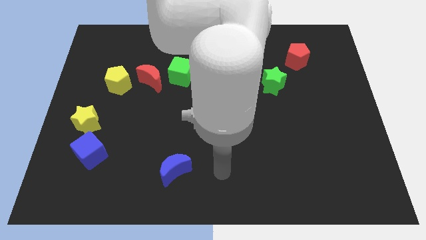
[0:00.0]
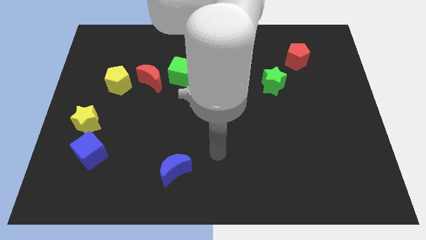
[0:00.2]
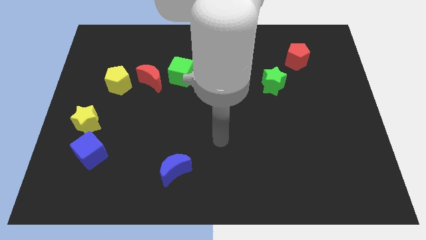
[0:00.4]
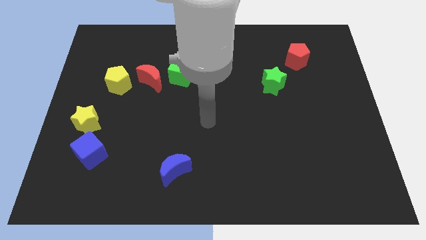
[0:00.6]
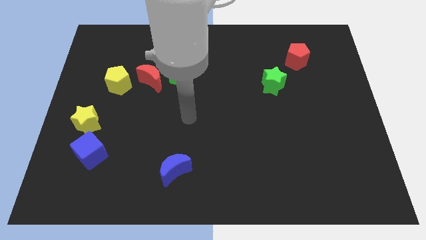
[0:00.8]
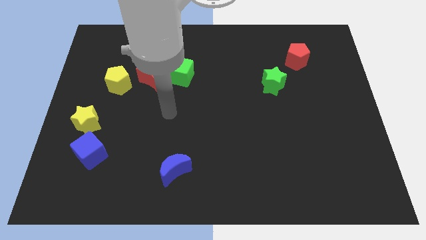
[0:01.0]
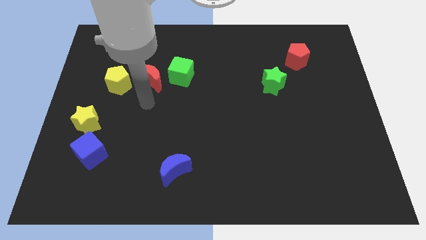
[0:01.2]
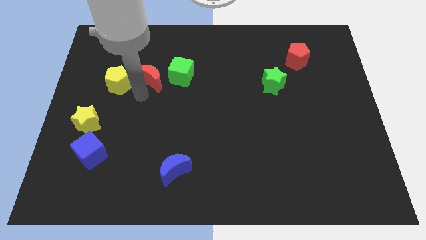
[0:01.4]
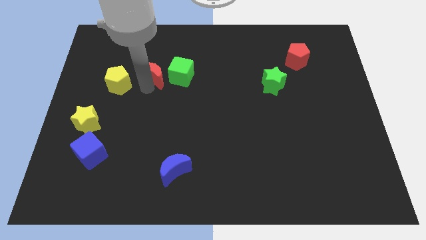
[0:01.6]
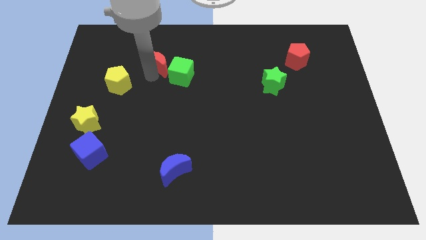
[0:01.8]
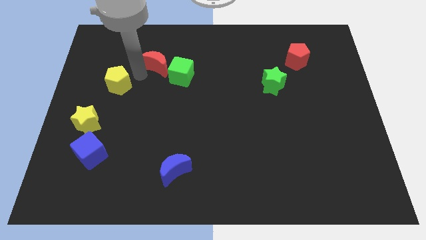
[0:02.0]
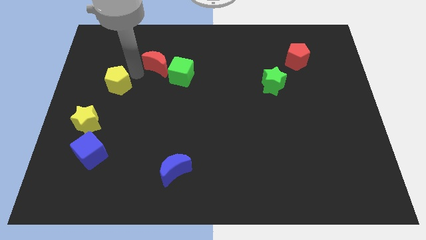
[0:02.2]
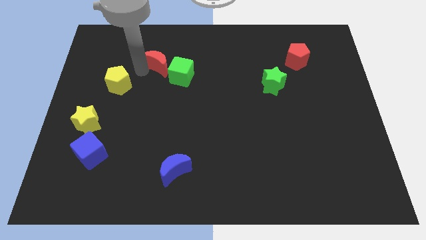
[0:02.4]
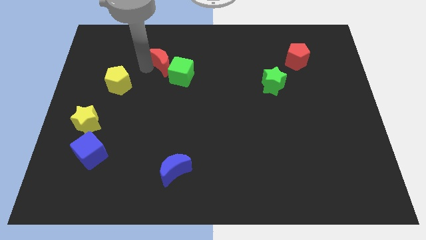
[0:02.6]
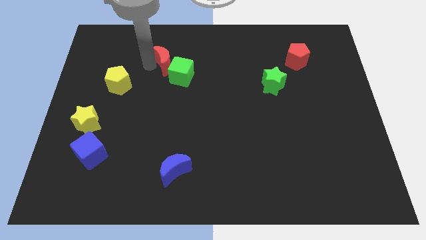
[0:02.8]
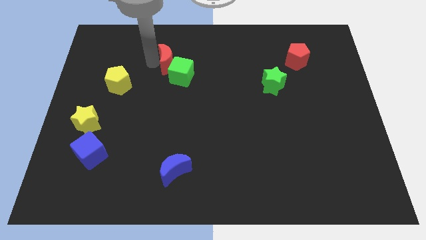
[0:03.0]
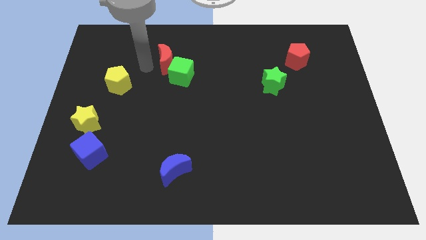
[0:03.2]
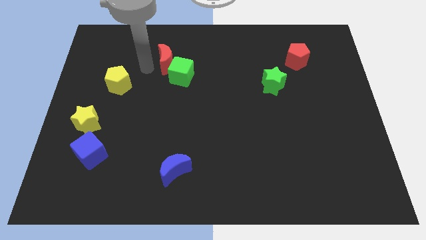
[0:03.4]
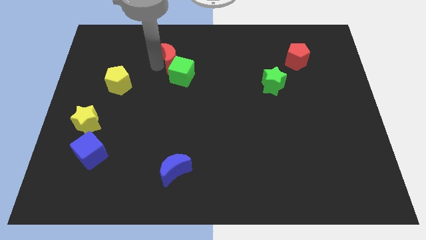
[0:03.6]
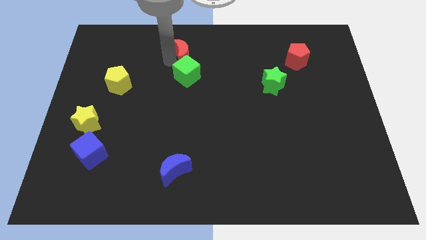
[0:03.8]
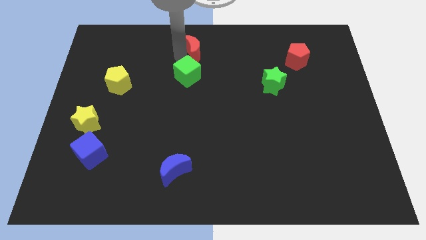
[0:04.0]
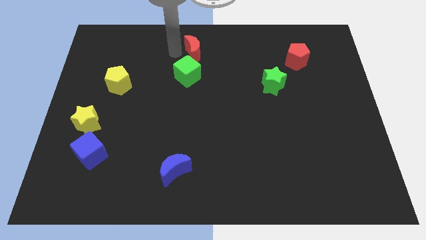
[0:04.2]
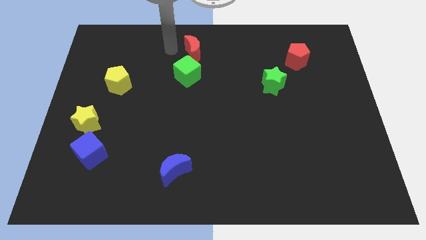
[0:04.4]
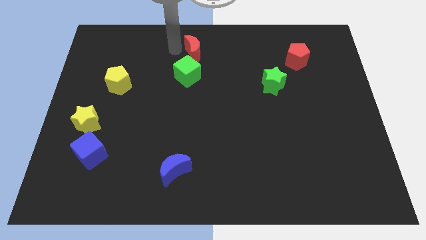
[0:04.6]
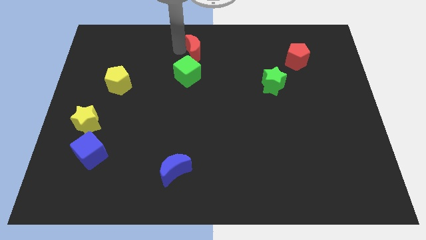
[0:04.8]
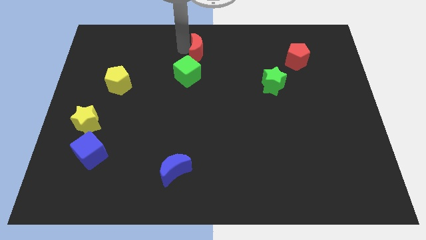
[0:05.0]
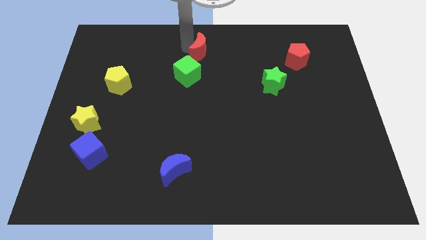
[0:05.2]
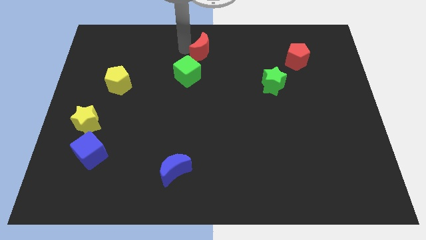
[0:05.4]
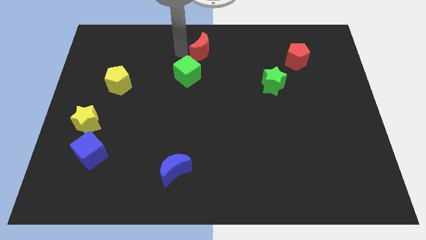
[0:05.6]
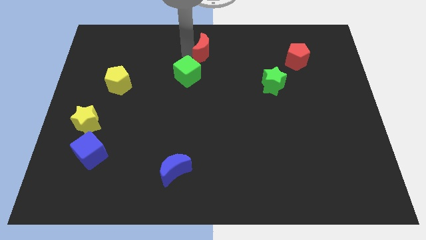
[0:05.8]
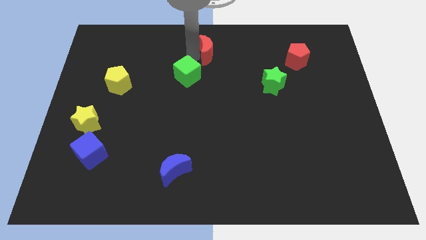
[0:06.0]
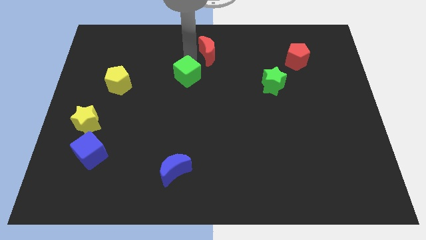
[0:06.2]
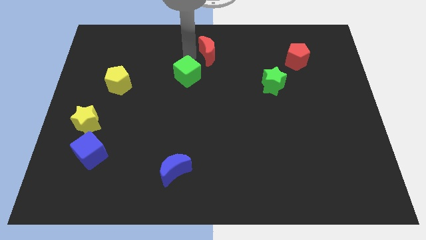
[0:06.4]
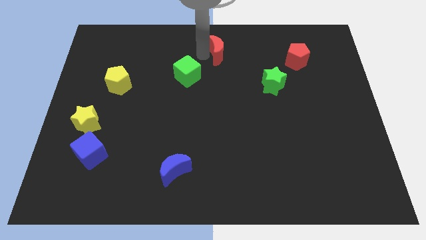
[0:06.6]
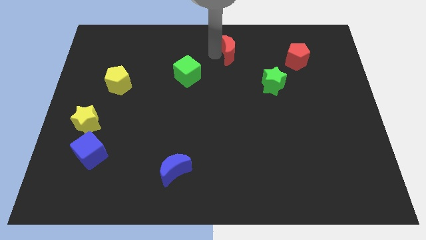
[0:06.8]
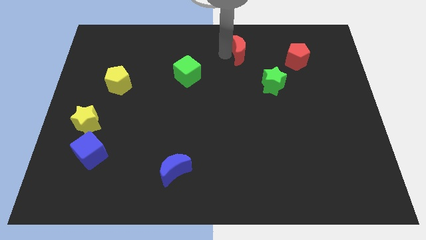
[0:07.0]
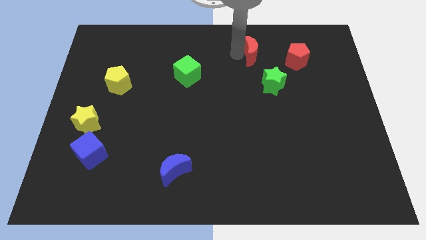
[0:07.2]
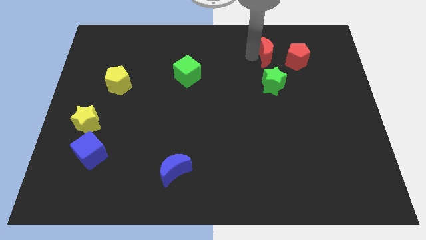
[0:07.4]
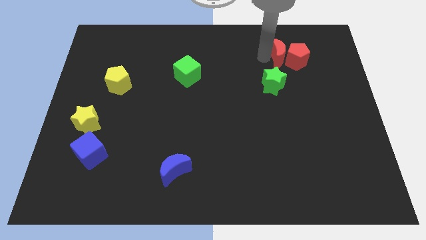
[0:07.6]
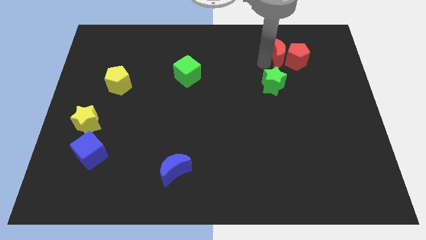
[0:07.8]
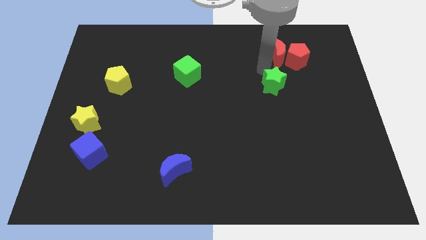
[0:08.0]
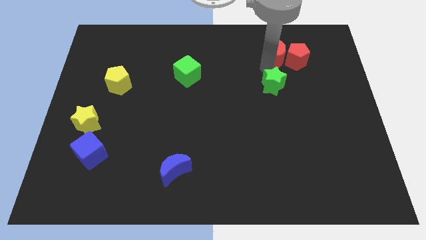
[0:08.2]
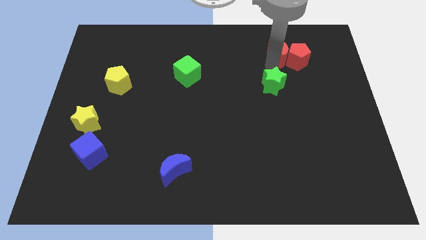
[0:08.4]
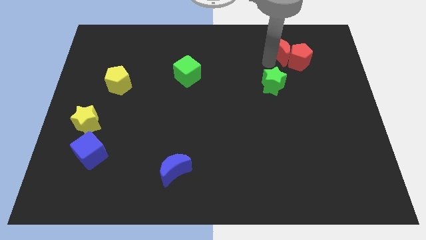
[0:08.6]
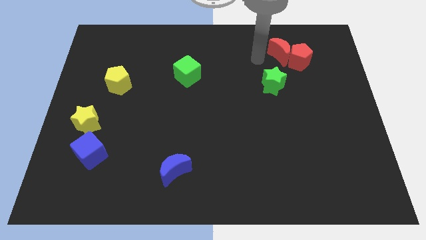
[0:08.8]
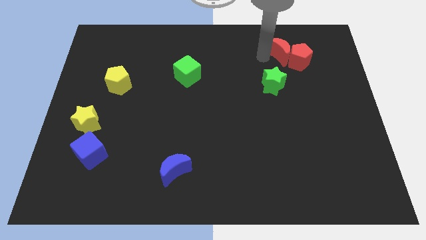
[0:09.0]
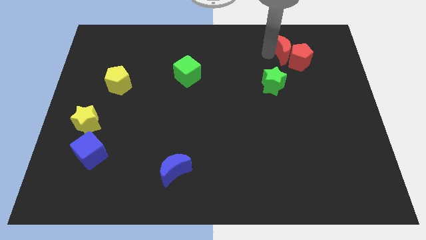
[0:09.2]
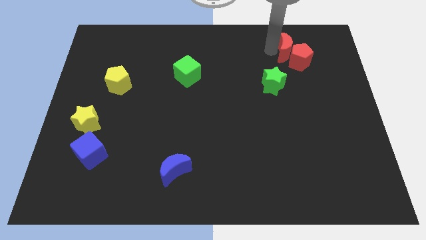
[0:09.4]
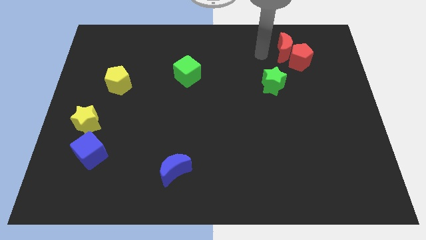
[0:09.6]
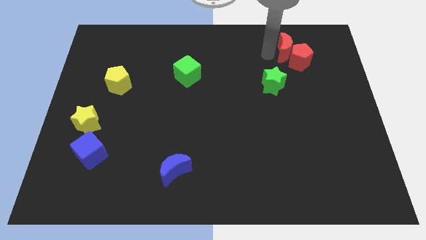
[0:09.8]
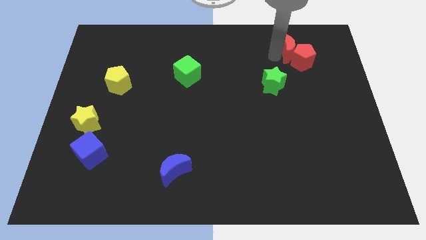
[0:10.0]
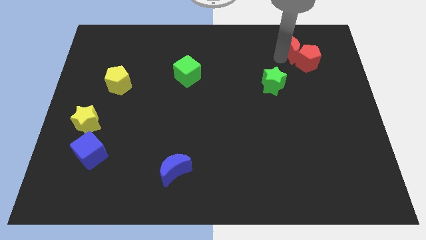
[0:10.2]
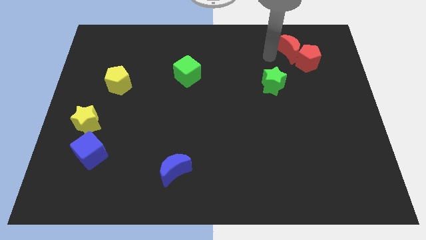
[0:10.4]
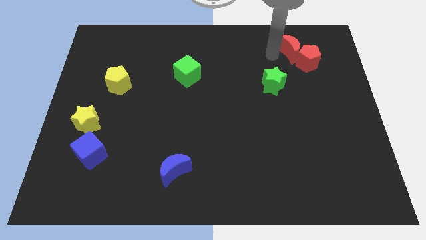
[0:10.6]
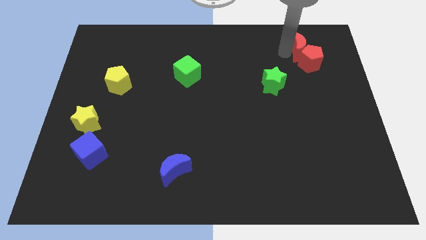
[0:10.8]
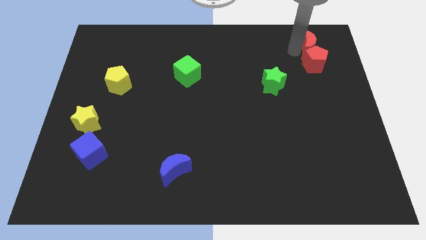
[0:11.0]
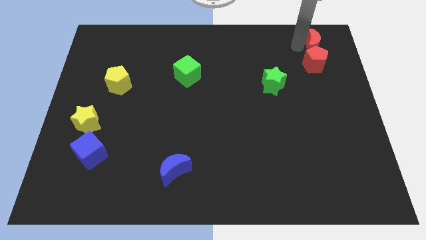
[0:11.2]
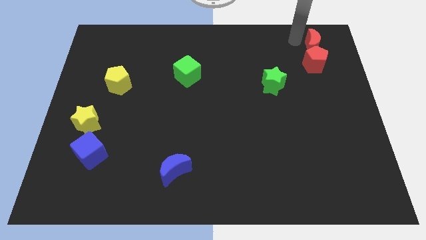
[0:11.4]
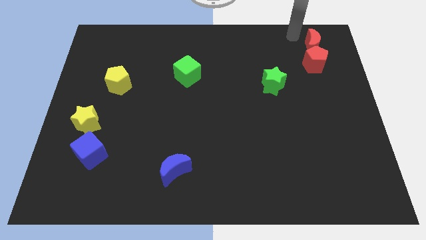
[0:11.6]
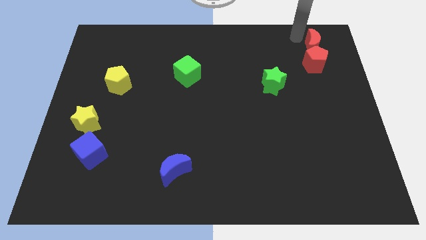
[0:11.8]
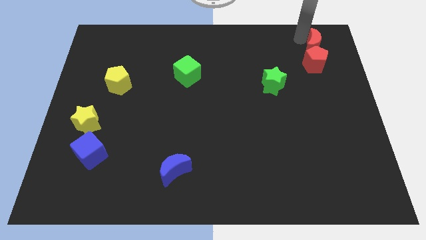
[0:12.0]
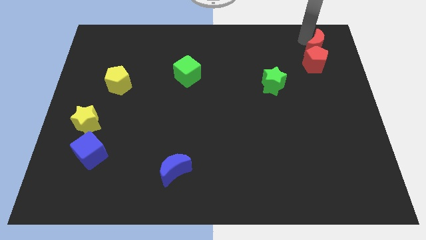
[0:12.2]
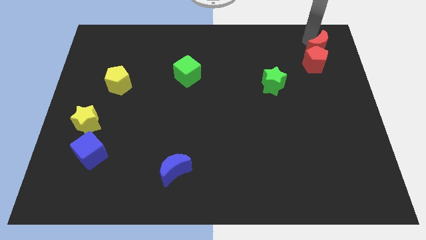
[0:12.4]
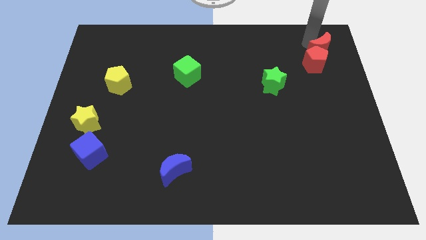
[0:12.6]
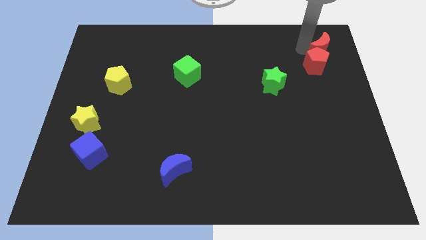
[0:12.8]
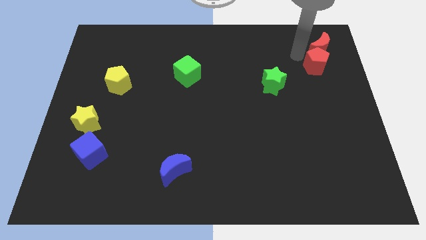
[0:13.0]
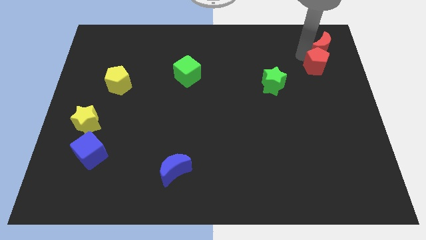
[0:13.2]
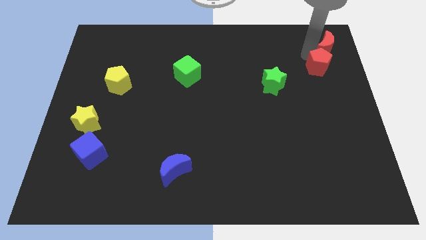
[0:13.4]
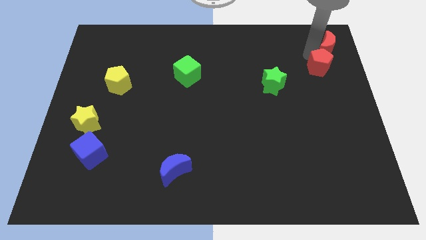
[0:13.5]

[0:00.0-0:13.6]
slide the red moon to the upper right corner
